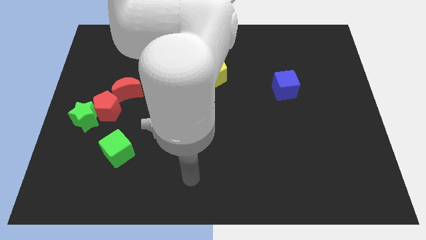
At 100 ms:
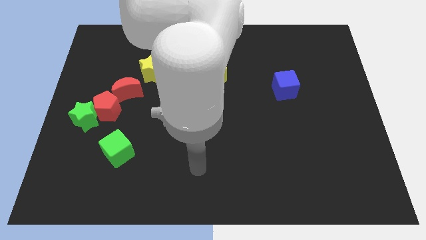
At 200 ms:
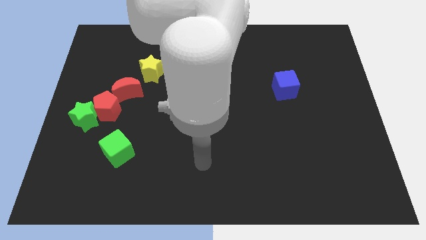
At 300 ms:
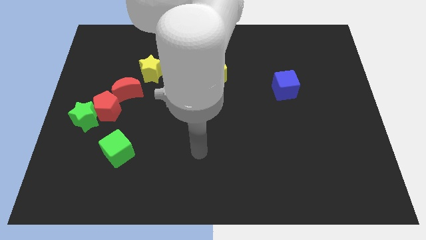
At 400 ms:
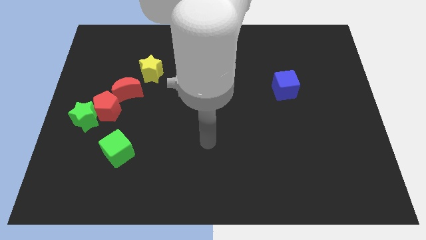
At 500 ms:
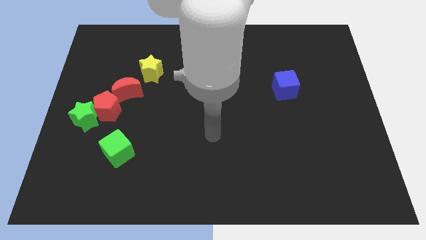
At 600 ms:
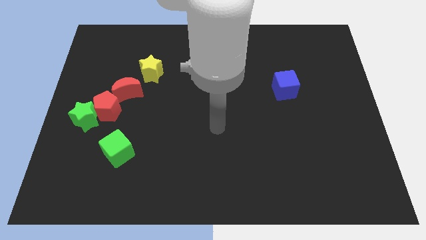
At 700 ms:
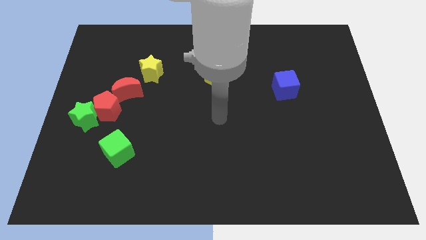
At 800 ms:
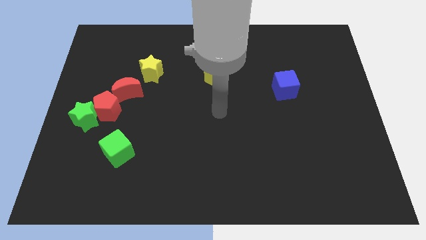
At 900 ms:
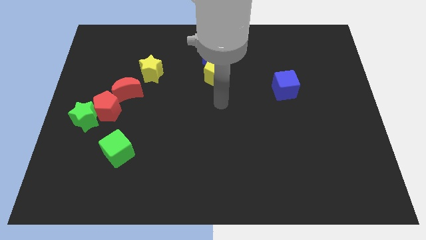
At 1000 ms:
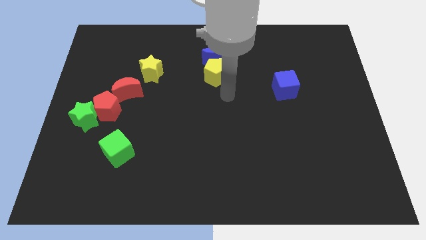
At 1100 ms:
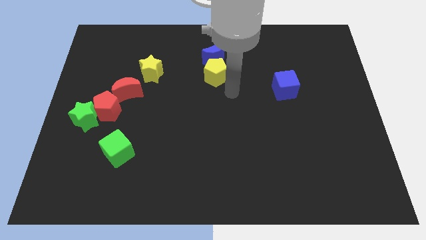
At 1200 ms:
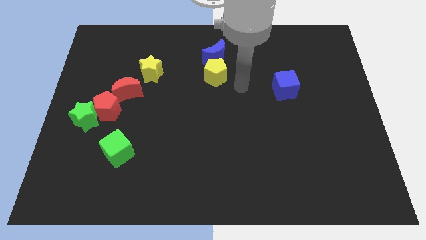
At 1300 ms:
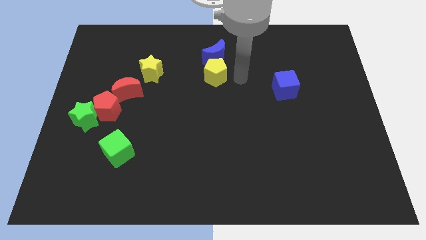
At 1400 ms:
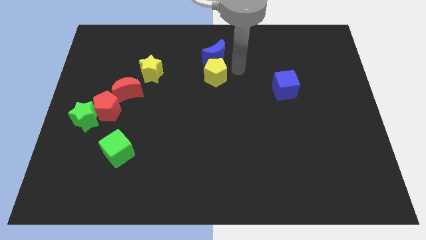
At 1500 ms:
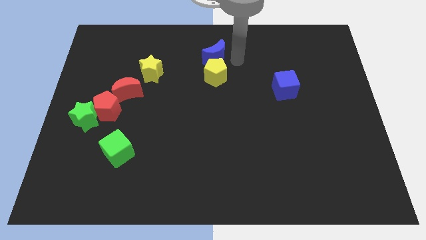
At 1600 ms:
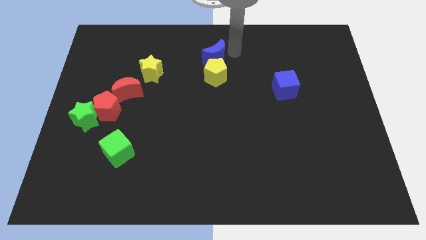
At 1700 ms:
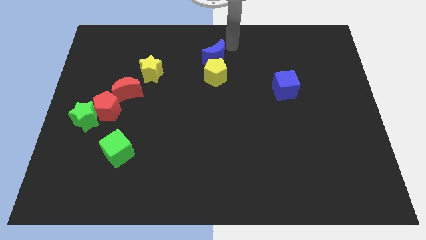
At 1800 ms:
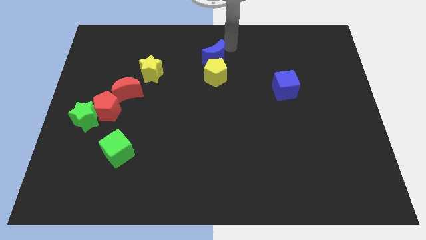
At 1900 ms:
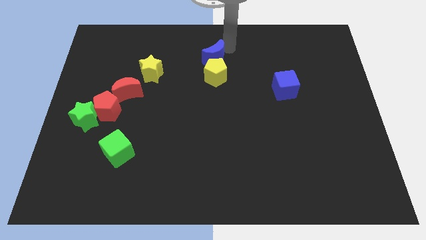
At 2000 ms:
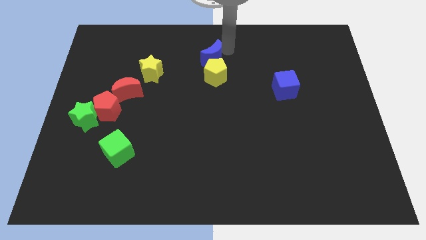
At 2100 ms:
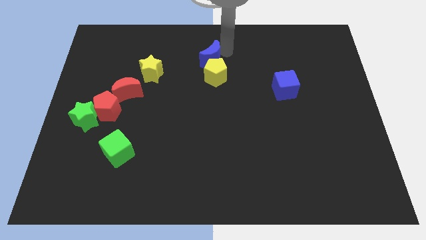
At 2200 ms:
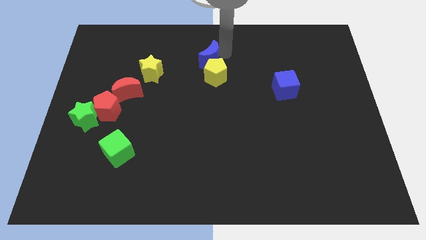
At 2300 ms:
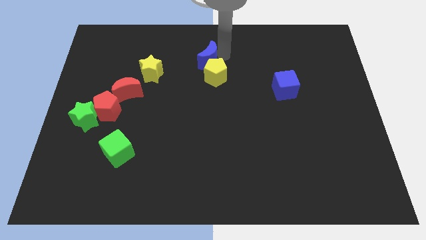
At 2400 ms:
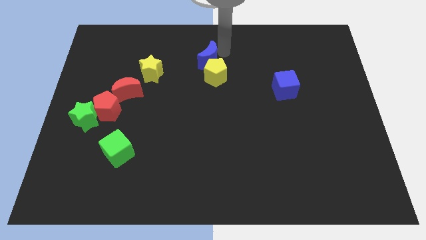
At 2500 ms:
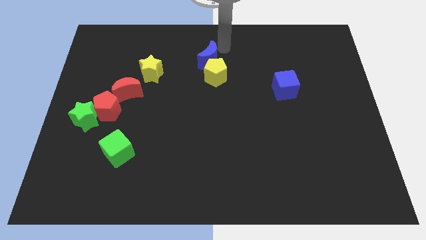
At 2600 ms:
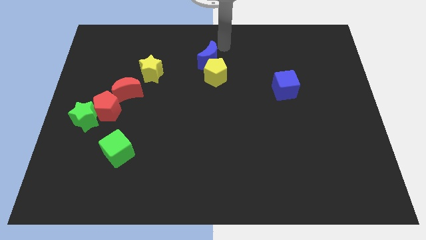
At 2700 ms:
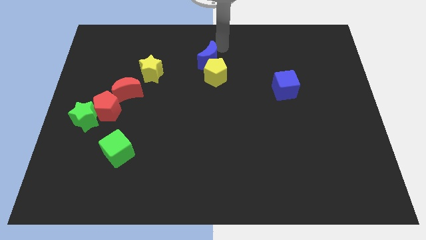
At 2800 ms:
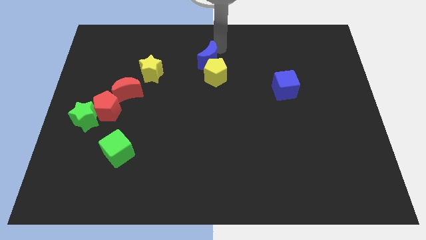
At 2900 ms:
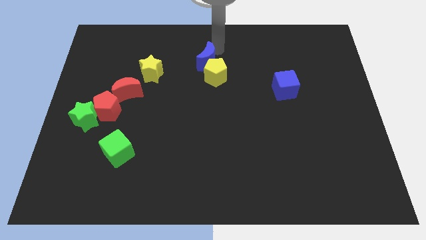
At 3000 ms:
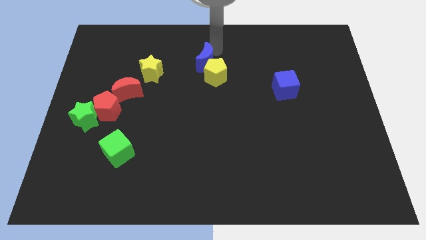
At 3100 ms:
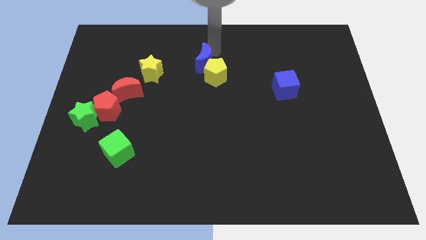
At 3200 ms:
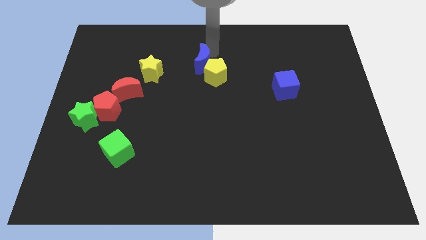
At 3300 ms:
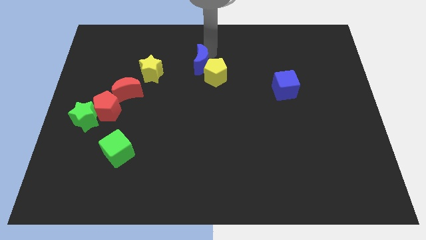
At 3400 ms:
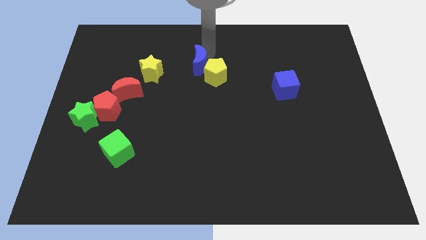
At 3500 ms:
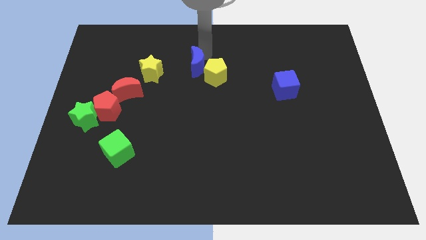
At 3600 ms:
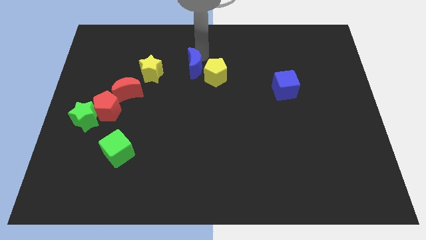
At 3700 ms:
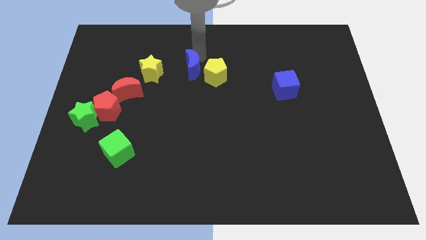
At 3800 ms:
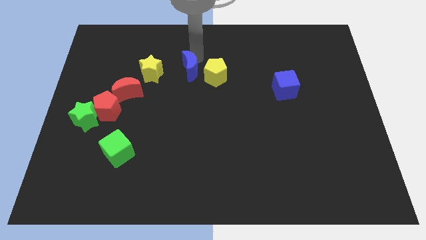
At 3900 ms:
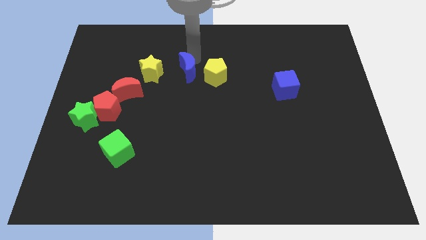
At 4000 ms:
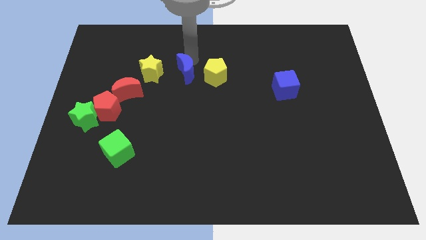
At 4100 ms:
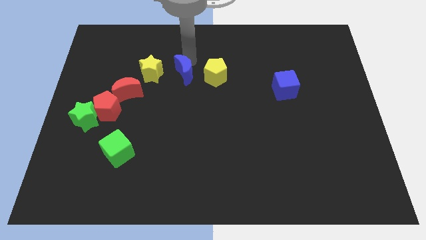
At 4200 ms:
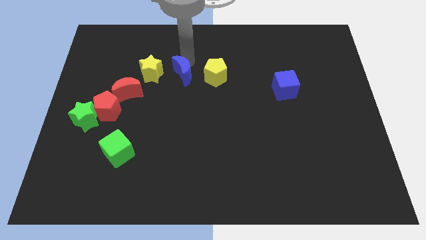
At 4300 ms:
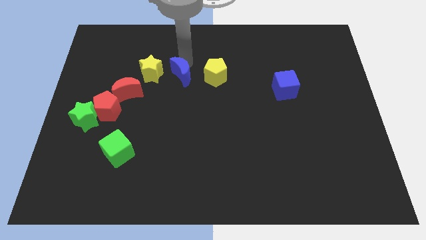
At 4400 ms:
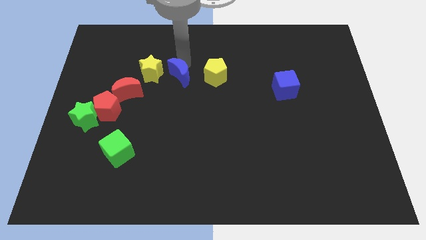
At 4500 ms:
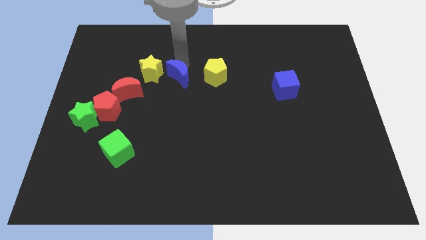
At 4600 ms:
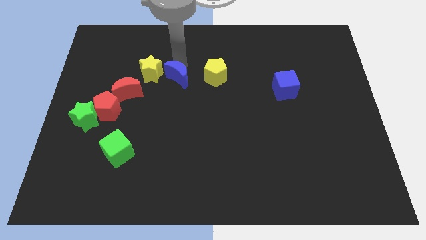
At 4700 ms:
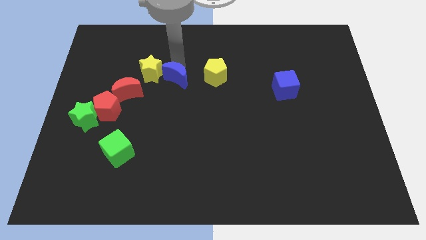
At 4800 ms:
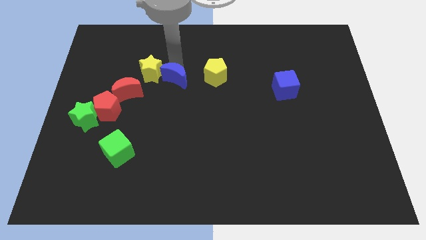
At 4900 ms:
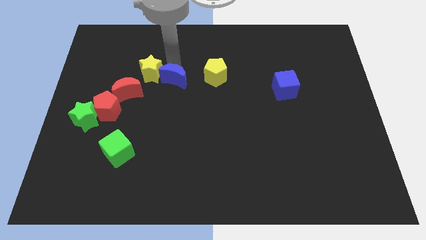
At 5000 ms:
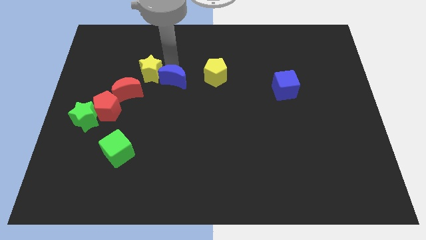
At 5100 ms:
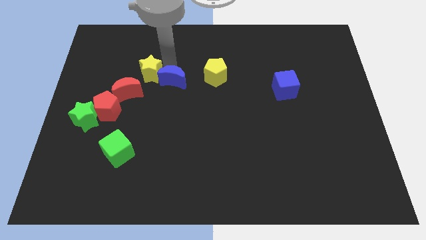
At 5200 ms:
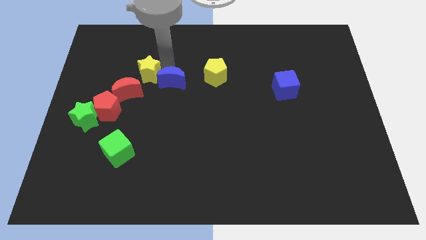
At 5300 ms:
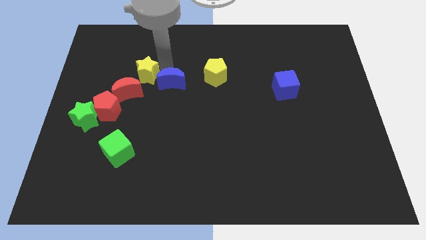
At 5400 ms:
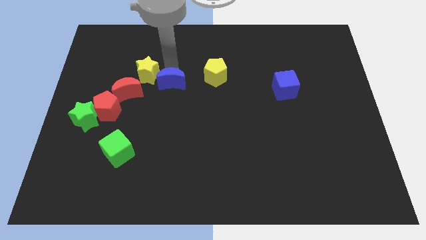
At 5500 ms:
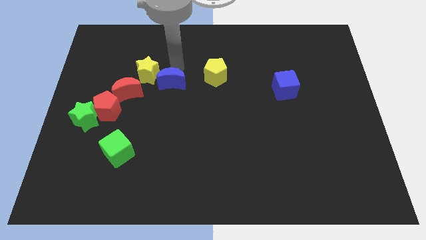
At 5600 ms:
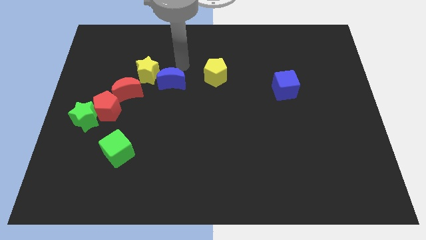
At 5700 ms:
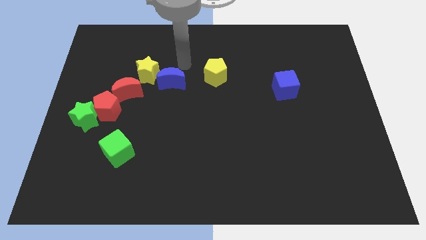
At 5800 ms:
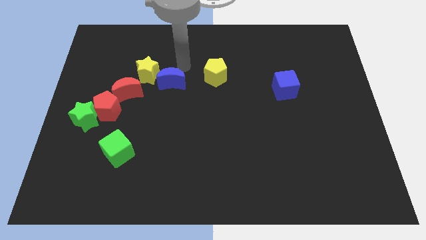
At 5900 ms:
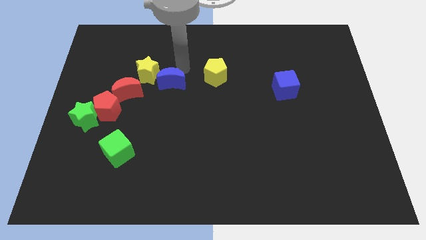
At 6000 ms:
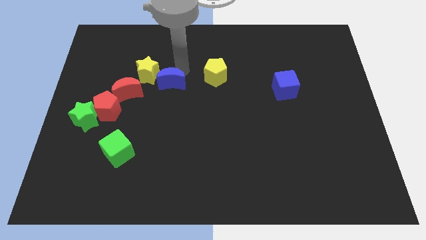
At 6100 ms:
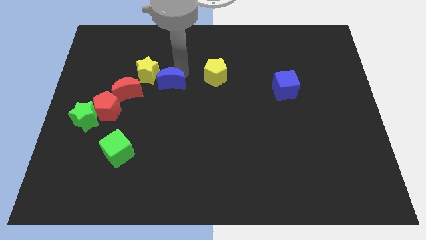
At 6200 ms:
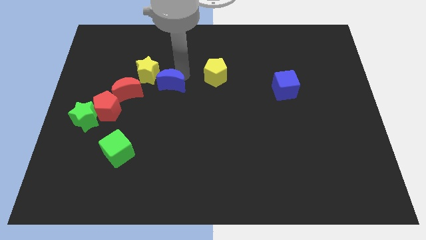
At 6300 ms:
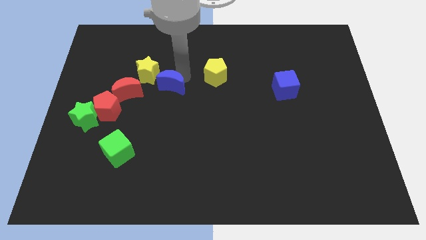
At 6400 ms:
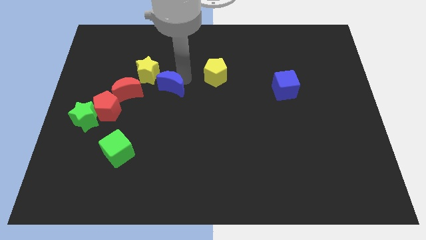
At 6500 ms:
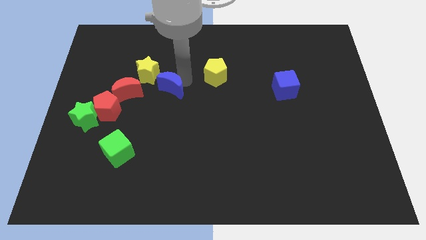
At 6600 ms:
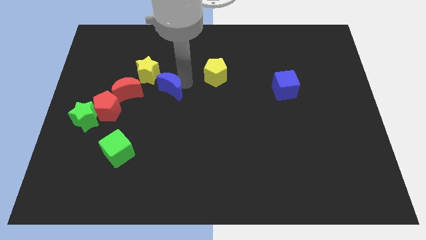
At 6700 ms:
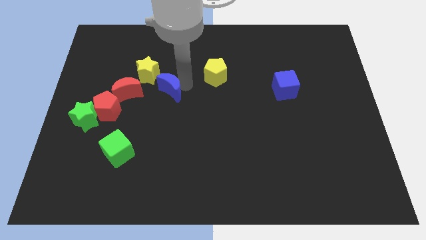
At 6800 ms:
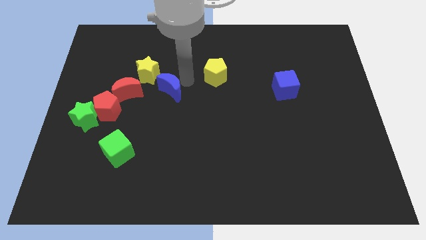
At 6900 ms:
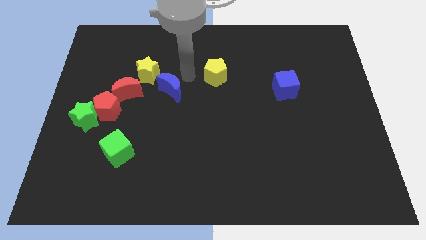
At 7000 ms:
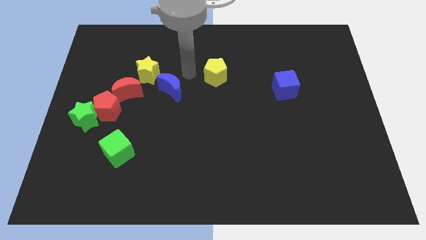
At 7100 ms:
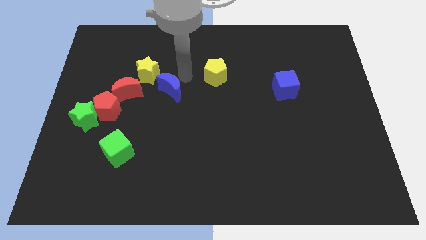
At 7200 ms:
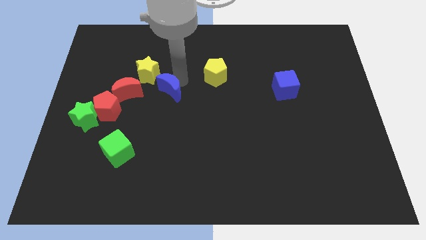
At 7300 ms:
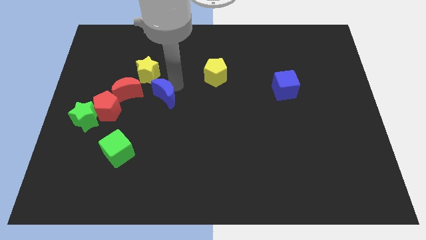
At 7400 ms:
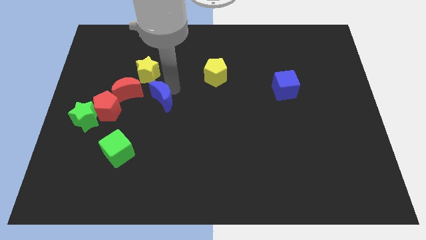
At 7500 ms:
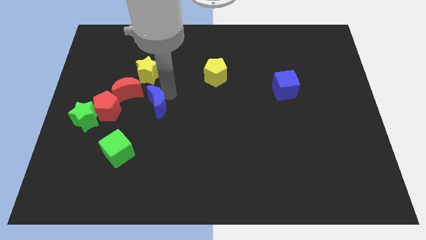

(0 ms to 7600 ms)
move the blue moon down and to the left

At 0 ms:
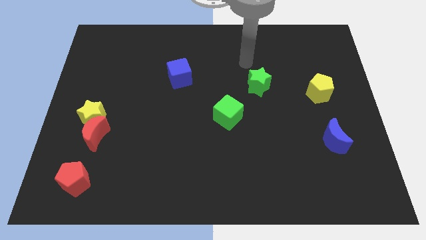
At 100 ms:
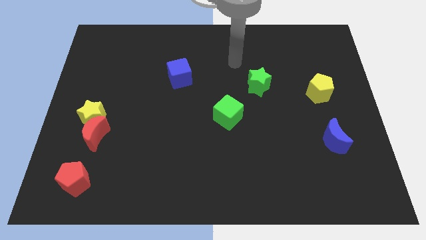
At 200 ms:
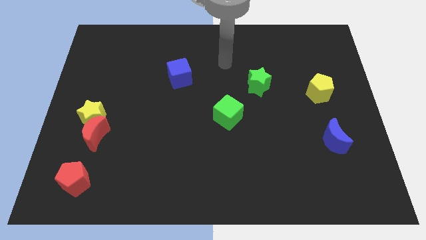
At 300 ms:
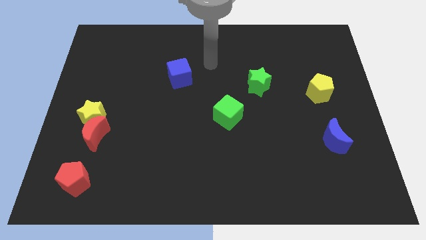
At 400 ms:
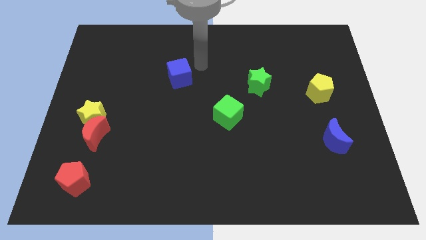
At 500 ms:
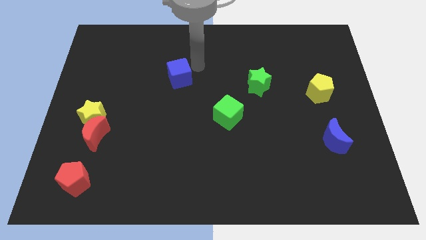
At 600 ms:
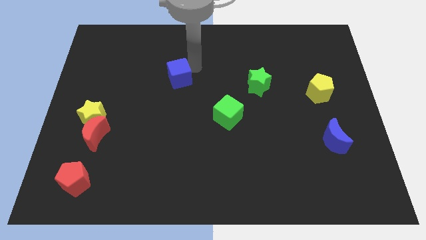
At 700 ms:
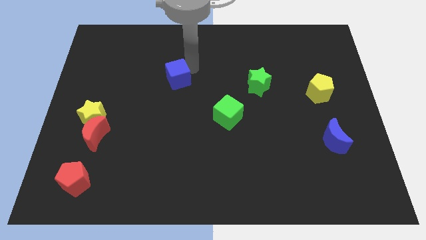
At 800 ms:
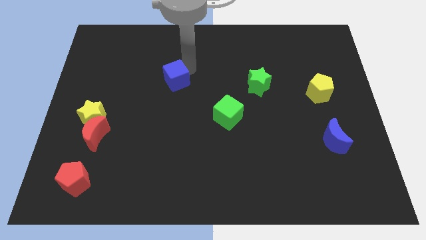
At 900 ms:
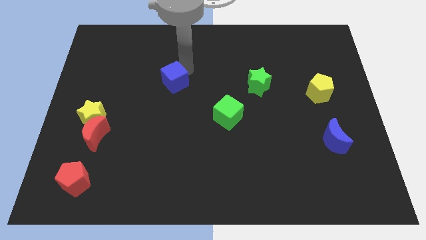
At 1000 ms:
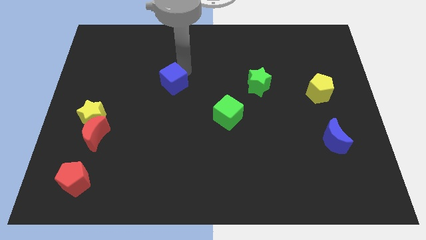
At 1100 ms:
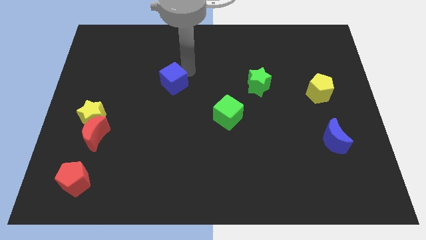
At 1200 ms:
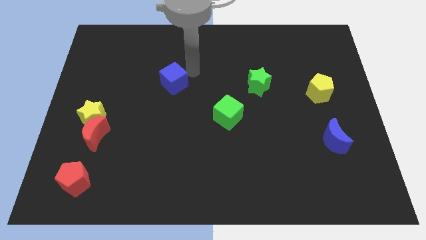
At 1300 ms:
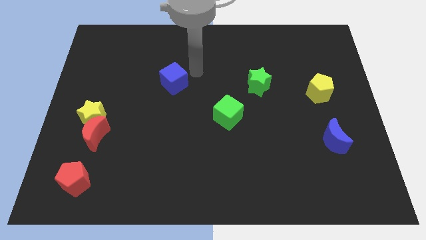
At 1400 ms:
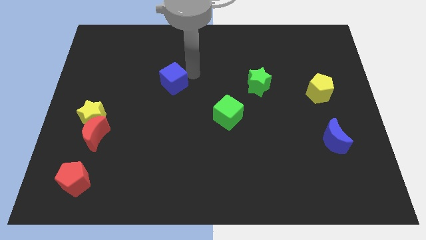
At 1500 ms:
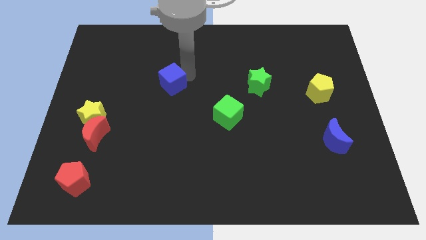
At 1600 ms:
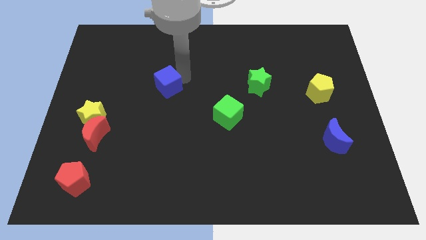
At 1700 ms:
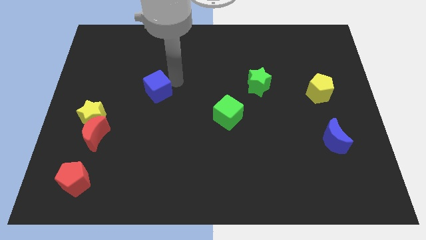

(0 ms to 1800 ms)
slightly slide the blue cube downwards and left diagonally
